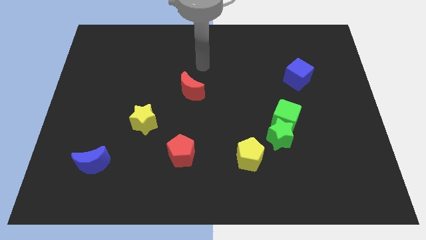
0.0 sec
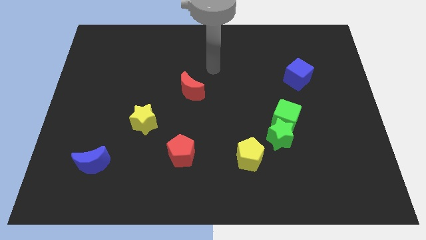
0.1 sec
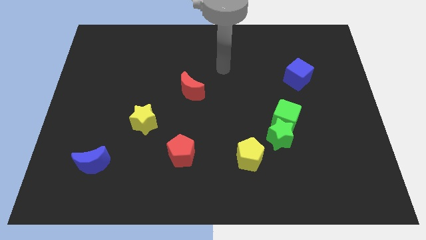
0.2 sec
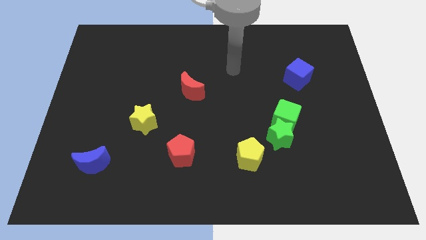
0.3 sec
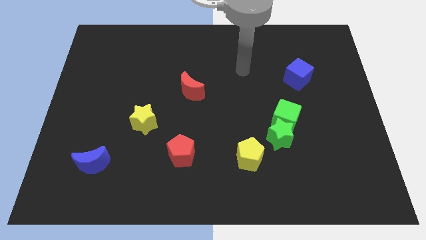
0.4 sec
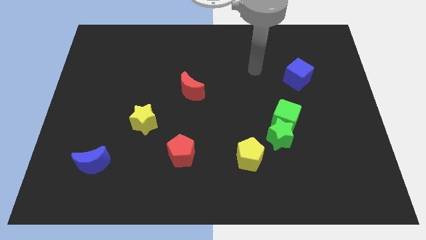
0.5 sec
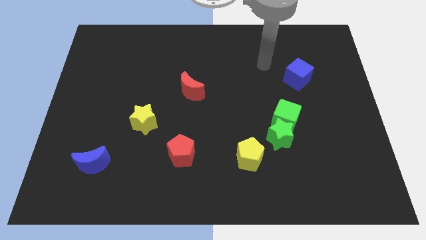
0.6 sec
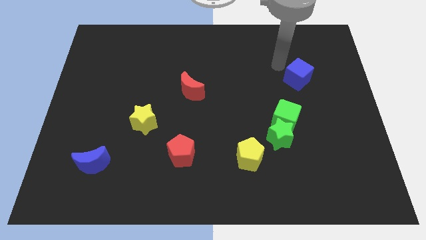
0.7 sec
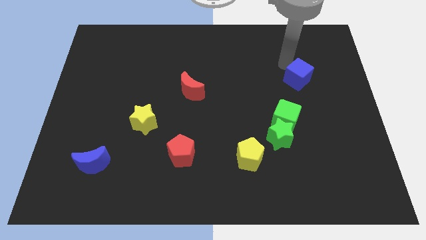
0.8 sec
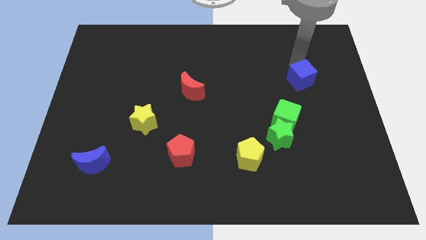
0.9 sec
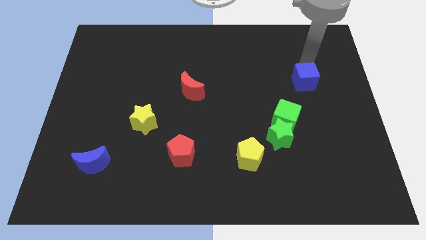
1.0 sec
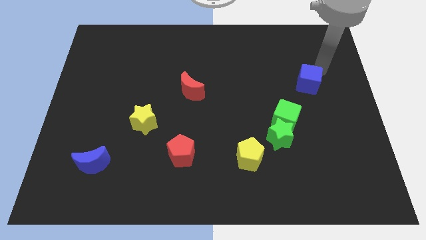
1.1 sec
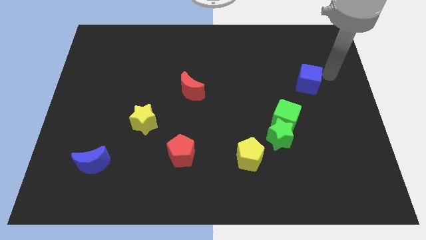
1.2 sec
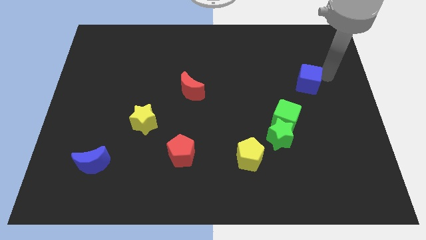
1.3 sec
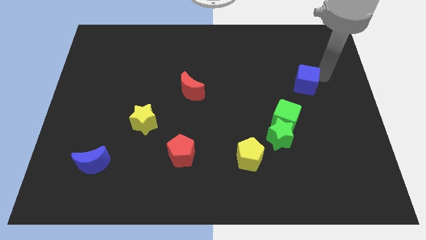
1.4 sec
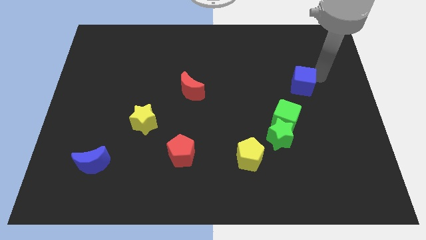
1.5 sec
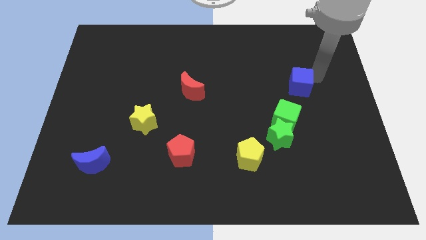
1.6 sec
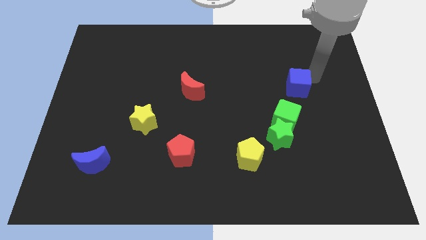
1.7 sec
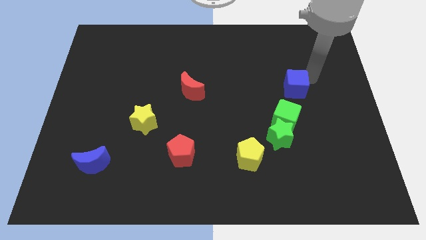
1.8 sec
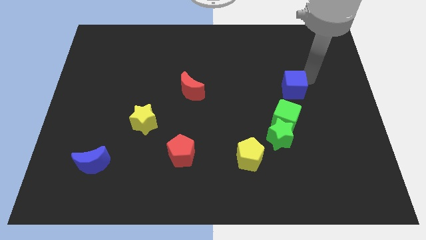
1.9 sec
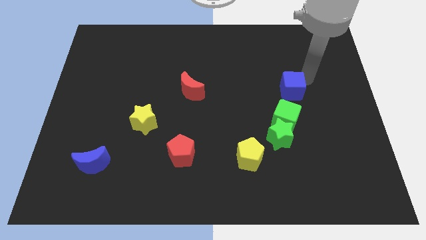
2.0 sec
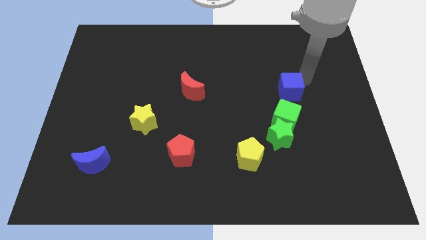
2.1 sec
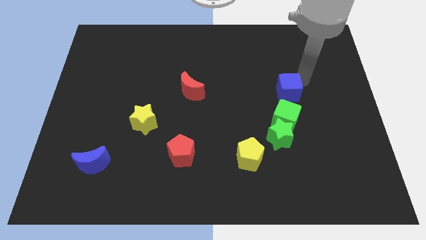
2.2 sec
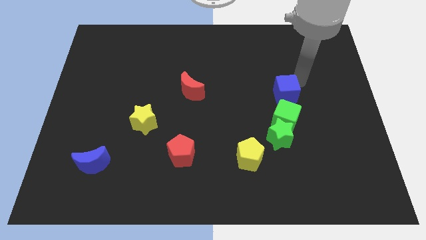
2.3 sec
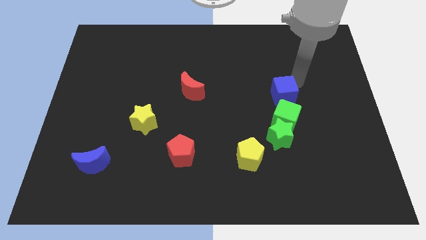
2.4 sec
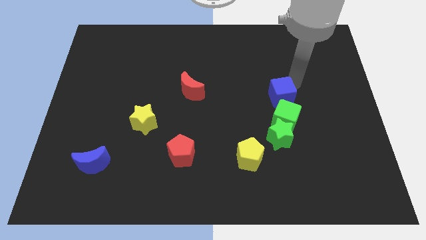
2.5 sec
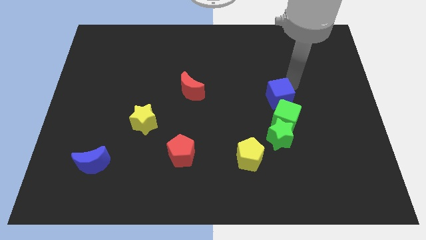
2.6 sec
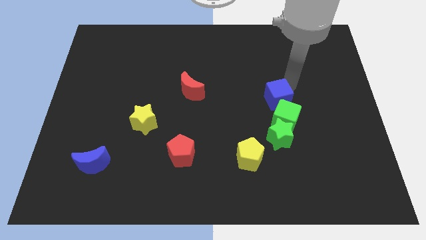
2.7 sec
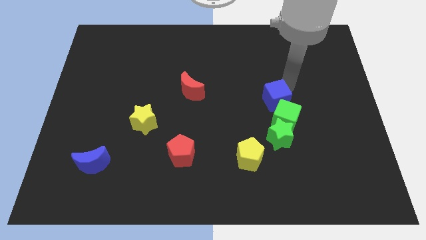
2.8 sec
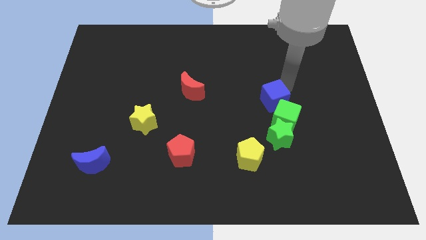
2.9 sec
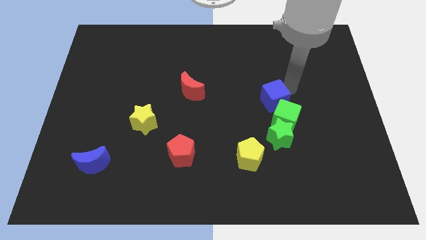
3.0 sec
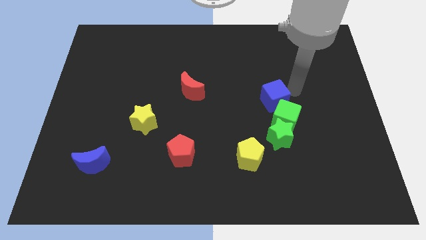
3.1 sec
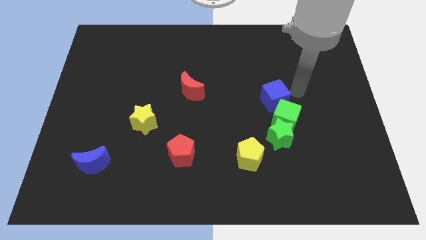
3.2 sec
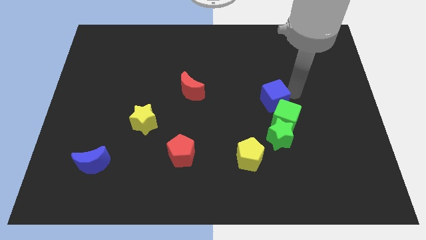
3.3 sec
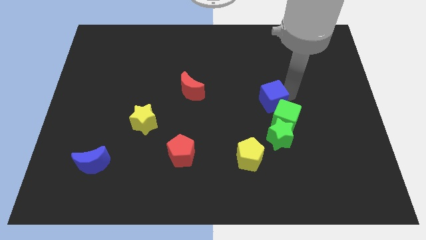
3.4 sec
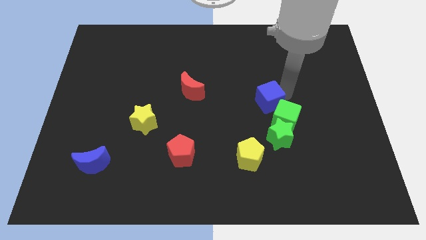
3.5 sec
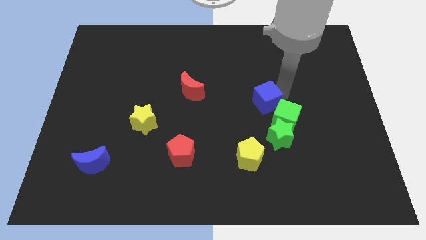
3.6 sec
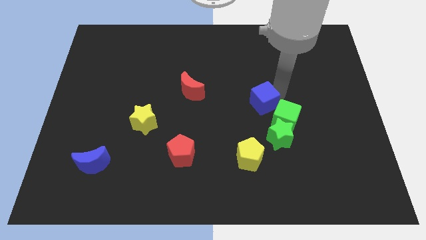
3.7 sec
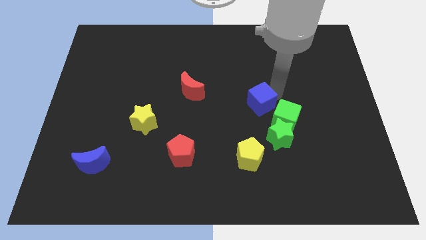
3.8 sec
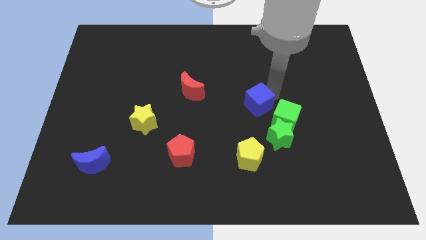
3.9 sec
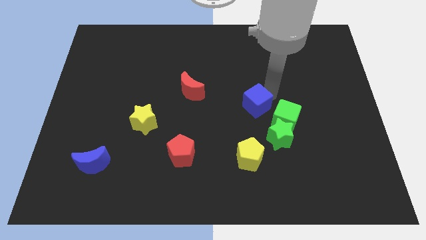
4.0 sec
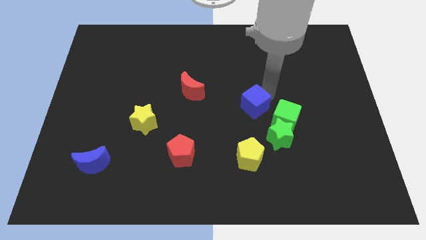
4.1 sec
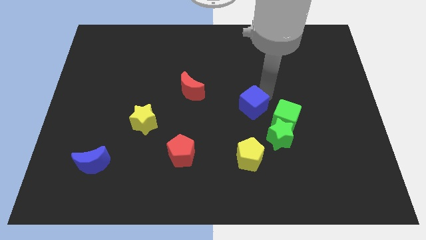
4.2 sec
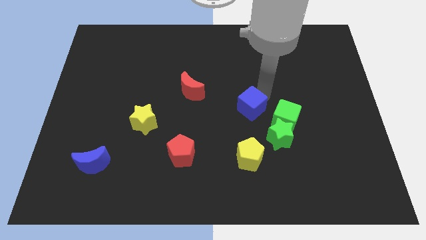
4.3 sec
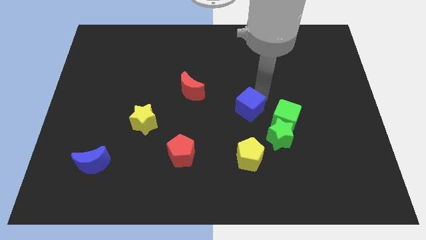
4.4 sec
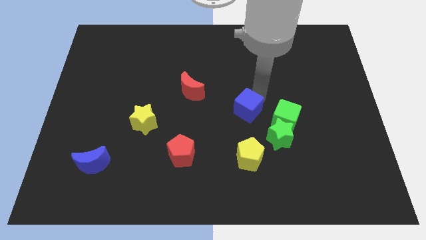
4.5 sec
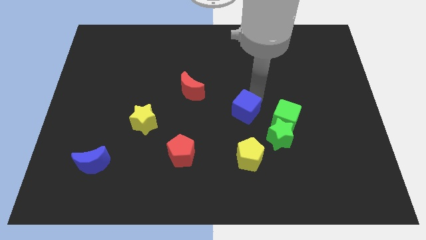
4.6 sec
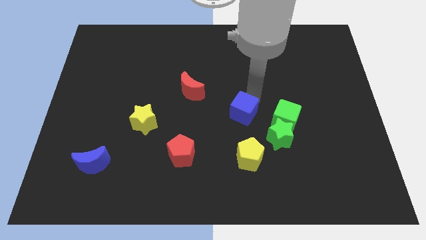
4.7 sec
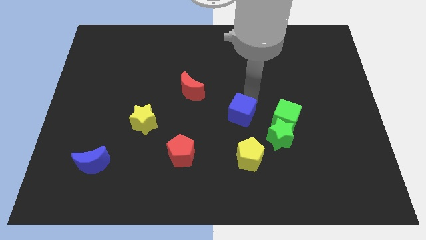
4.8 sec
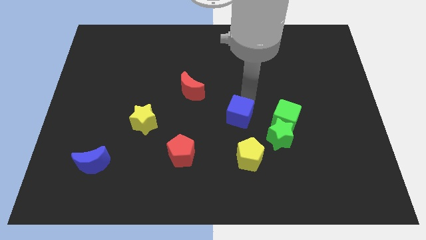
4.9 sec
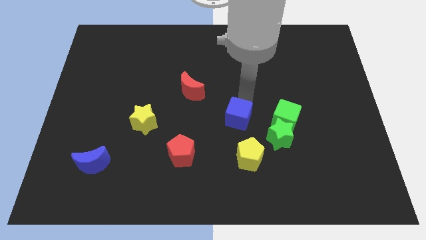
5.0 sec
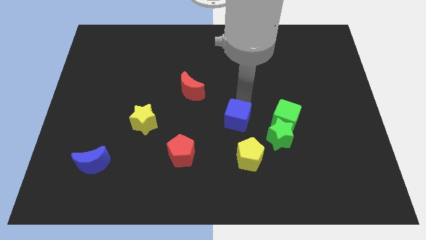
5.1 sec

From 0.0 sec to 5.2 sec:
slide the blue cube diagonally down and to the left

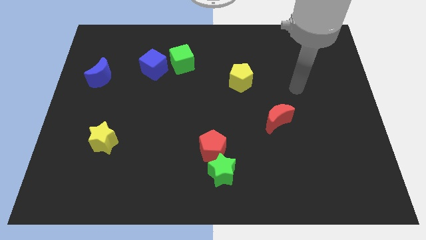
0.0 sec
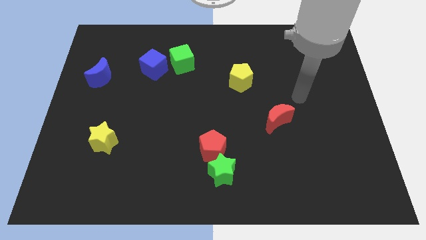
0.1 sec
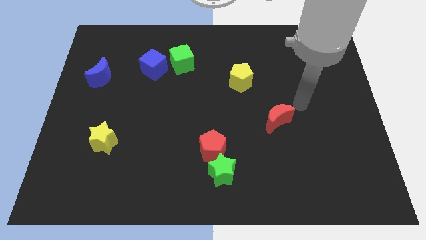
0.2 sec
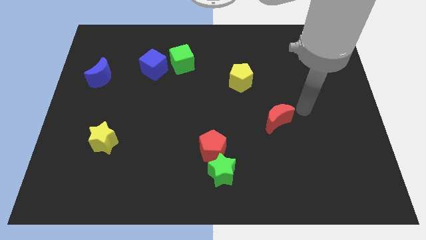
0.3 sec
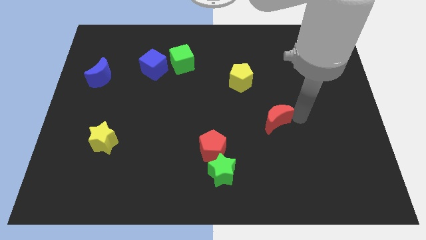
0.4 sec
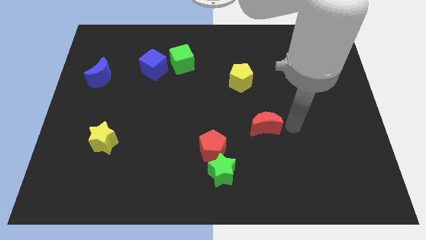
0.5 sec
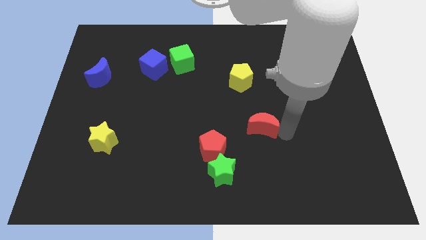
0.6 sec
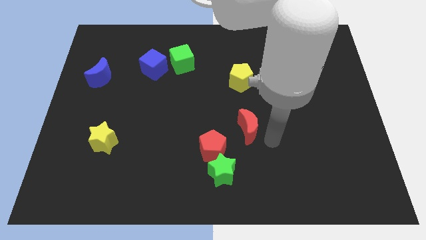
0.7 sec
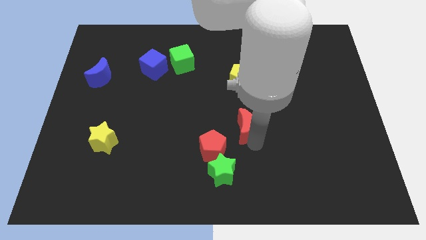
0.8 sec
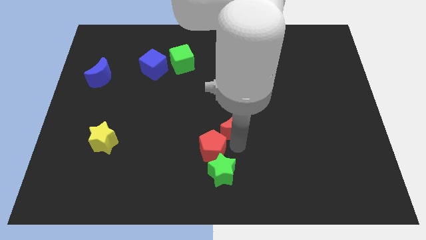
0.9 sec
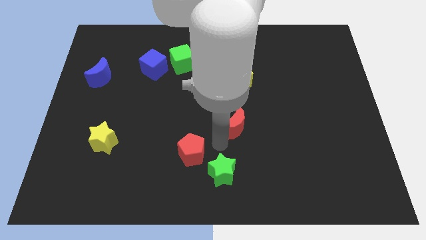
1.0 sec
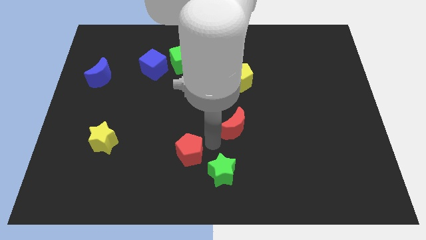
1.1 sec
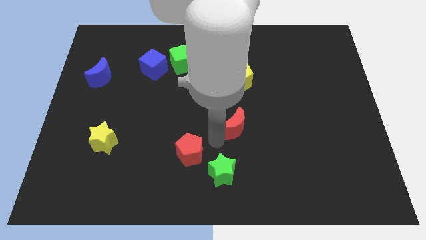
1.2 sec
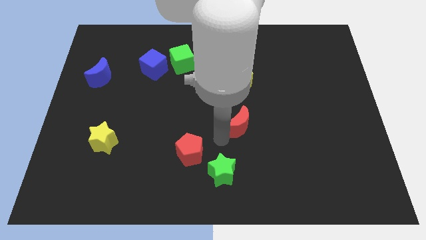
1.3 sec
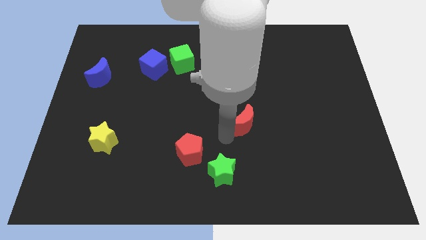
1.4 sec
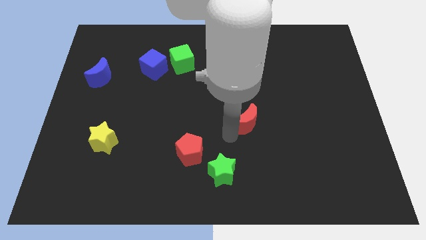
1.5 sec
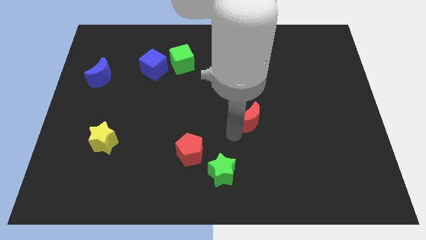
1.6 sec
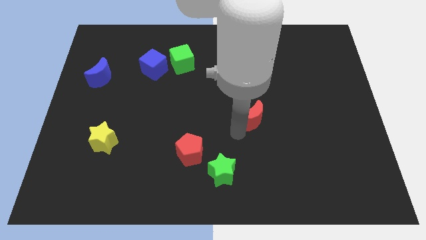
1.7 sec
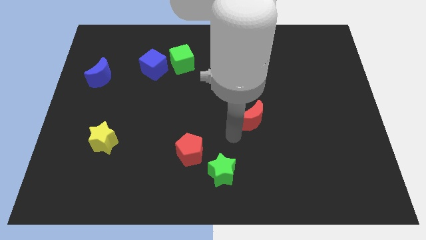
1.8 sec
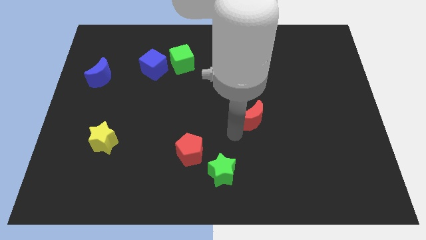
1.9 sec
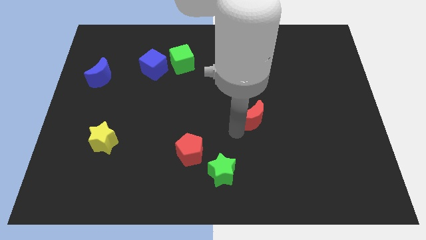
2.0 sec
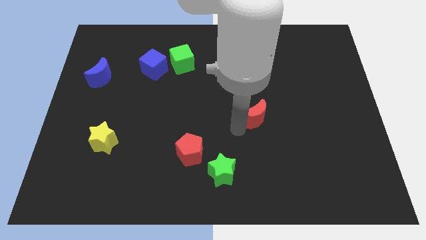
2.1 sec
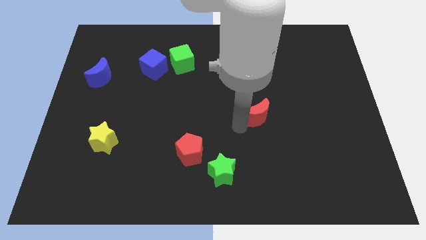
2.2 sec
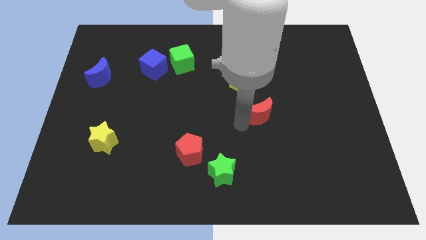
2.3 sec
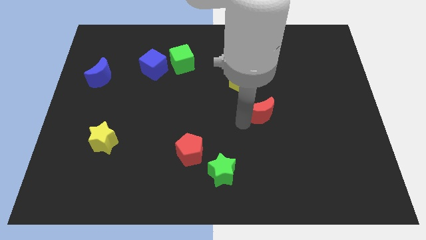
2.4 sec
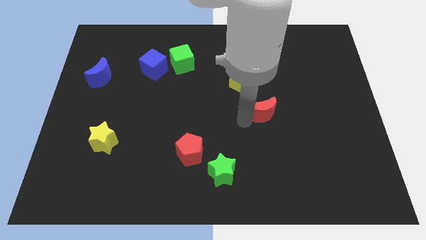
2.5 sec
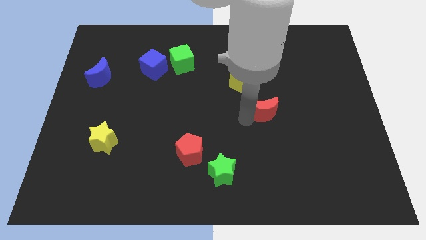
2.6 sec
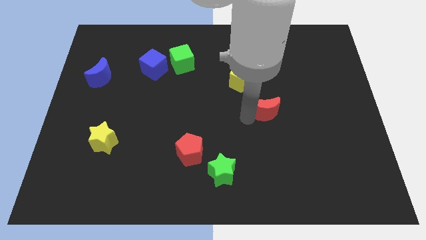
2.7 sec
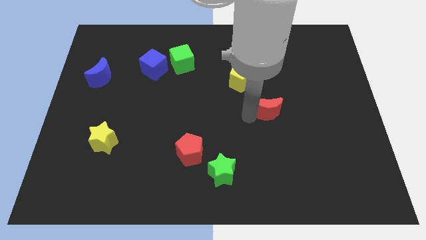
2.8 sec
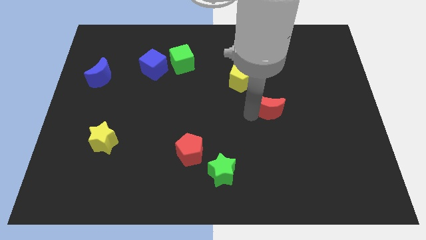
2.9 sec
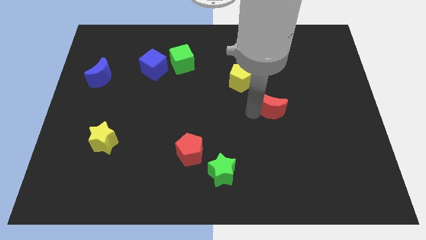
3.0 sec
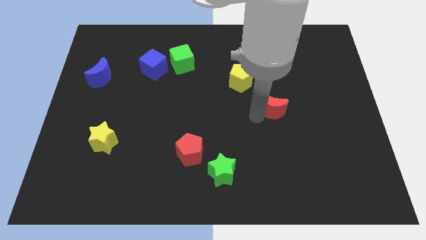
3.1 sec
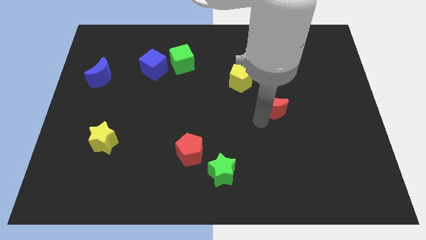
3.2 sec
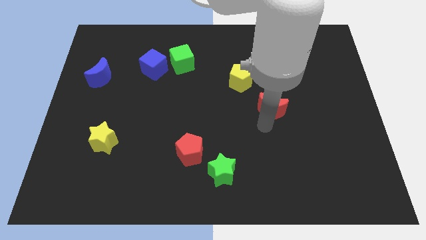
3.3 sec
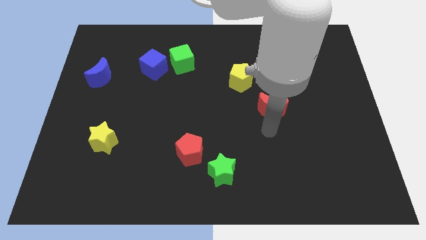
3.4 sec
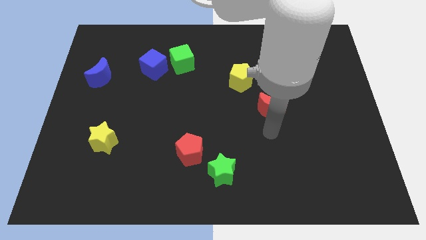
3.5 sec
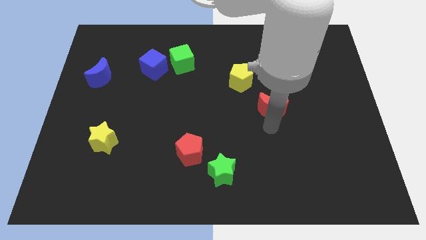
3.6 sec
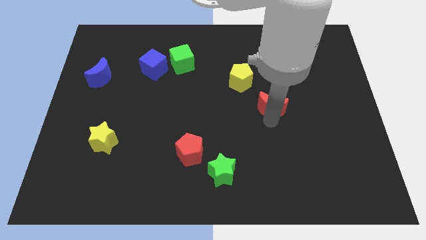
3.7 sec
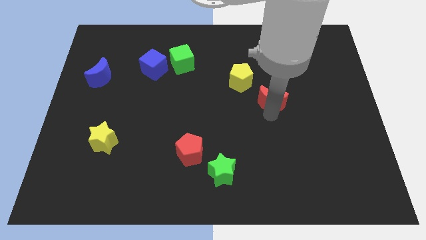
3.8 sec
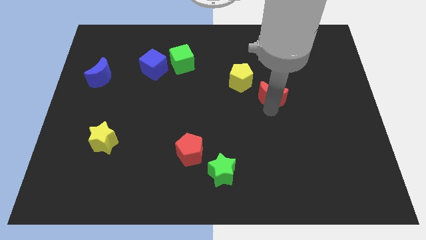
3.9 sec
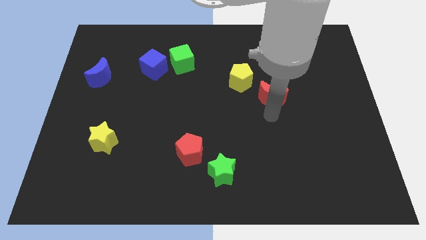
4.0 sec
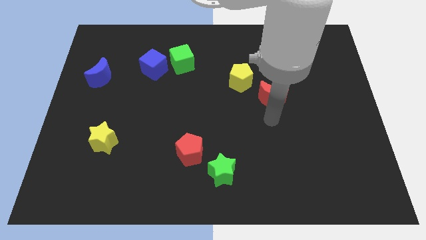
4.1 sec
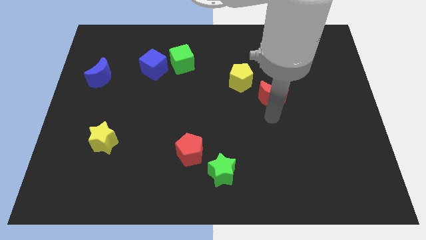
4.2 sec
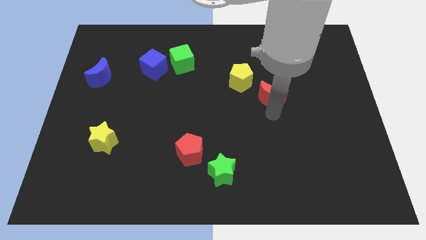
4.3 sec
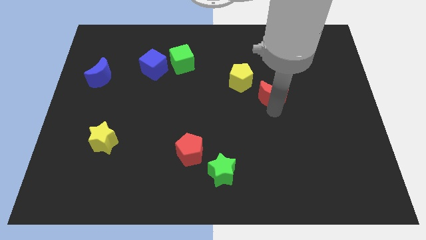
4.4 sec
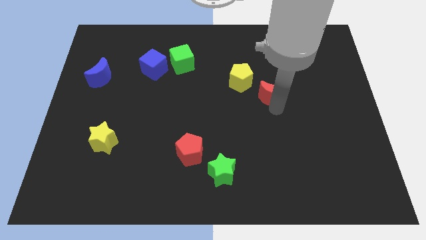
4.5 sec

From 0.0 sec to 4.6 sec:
slide the red moon up somewhat
